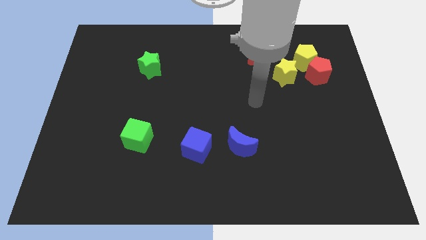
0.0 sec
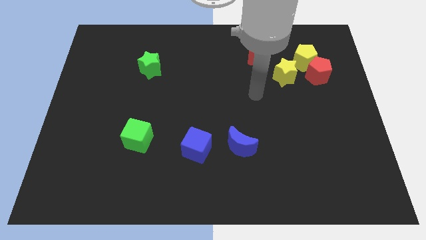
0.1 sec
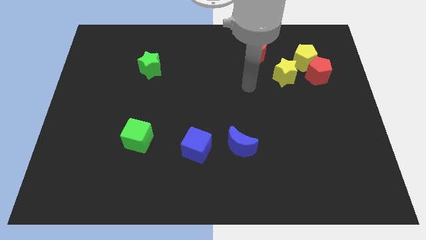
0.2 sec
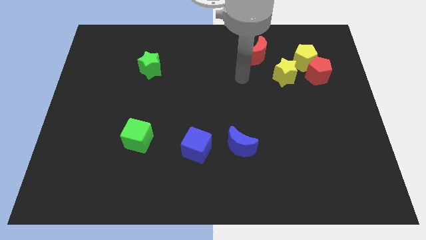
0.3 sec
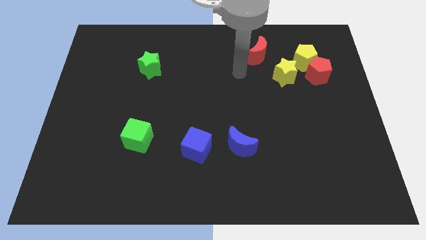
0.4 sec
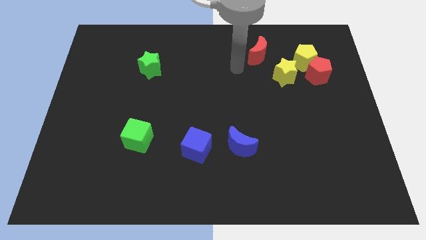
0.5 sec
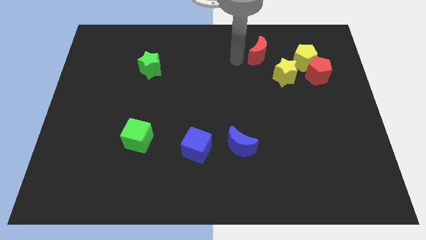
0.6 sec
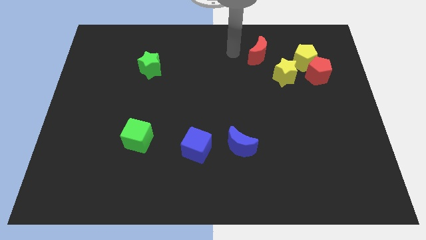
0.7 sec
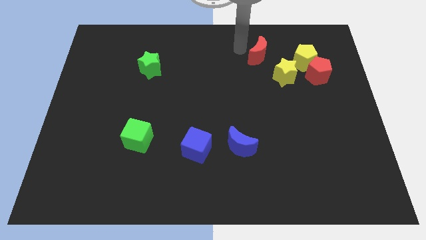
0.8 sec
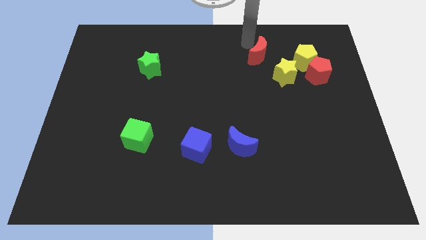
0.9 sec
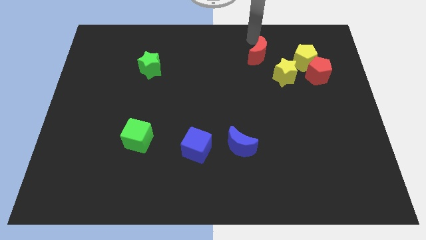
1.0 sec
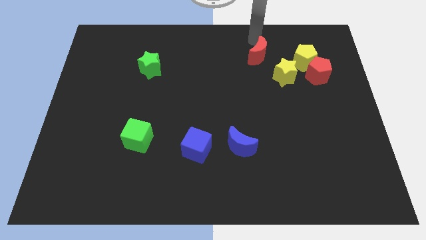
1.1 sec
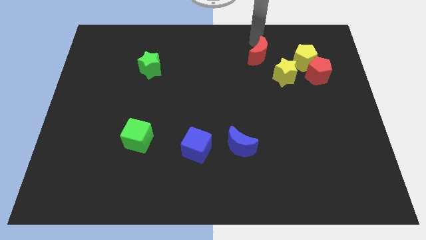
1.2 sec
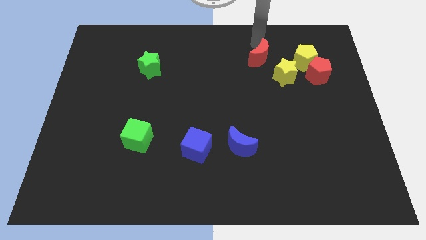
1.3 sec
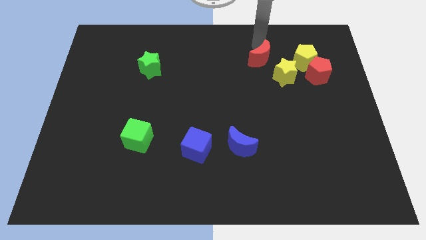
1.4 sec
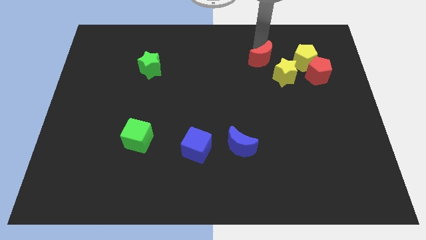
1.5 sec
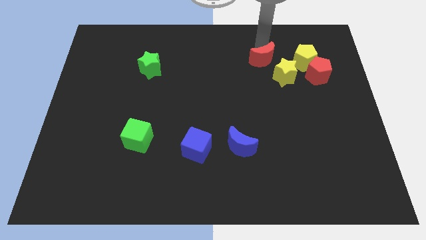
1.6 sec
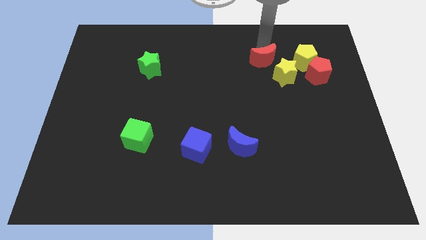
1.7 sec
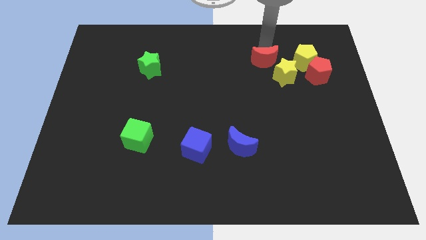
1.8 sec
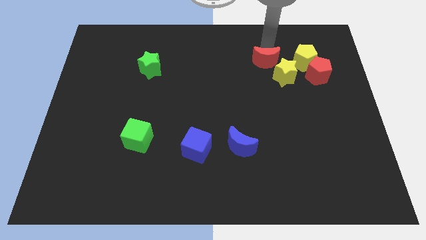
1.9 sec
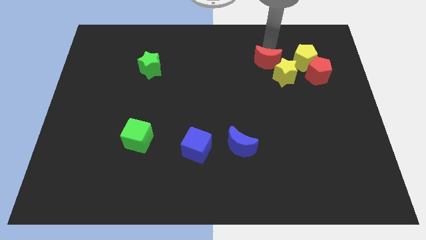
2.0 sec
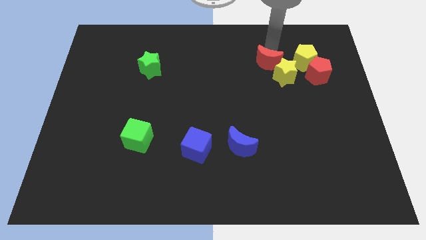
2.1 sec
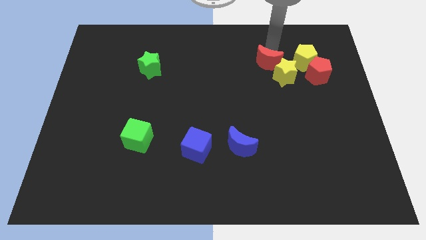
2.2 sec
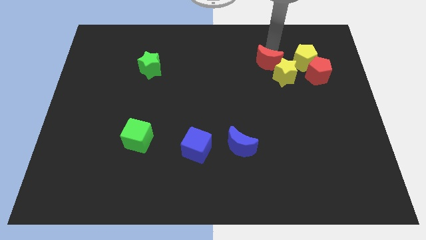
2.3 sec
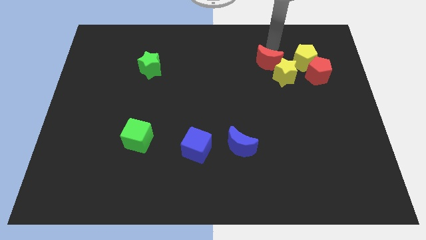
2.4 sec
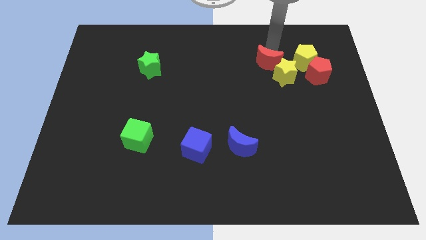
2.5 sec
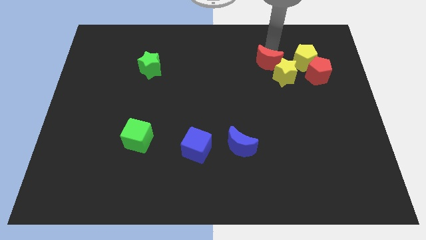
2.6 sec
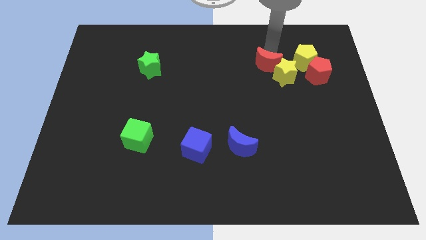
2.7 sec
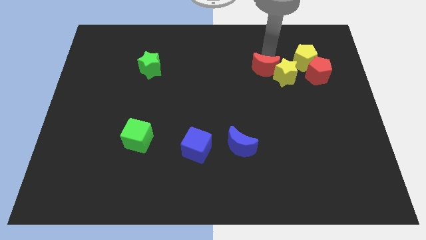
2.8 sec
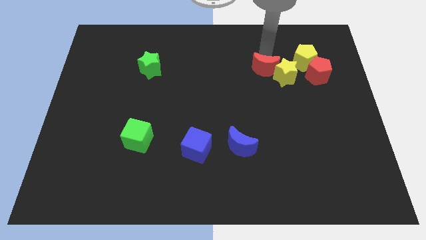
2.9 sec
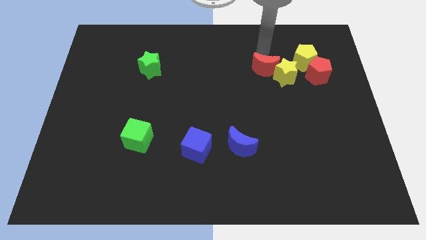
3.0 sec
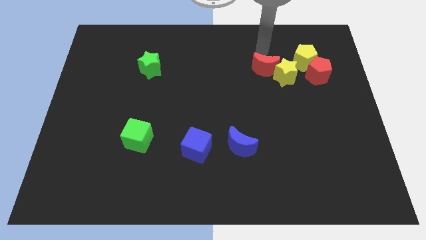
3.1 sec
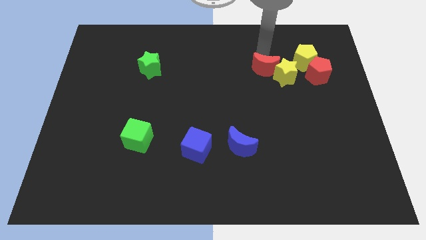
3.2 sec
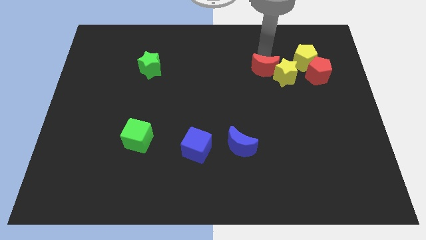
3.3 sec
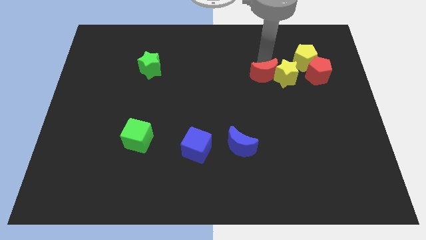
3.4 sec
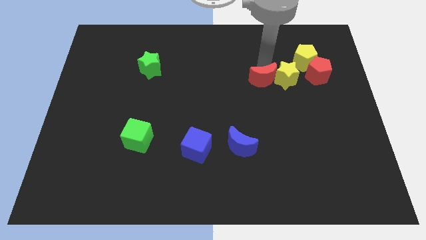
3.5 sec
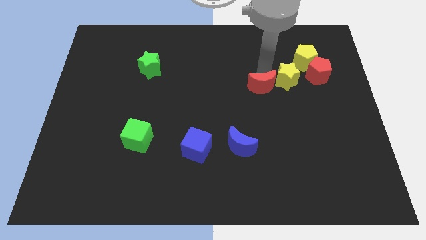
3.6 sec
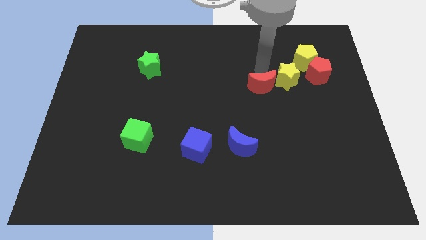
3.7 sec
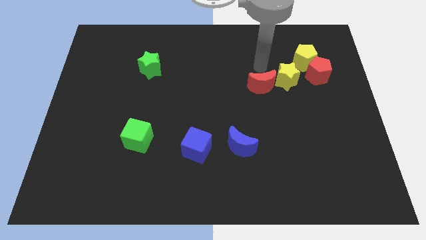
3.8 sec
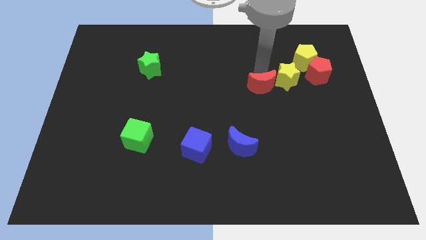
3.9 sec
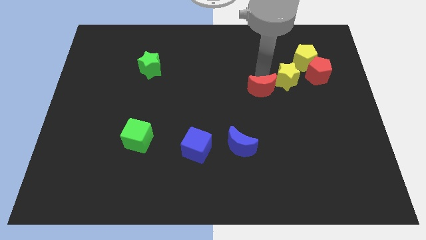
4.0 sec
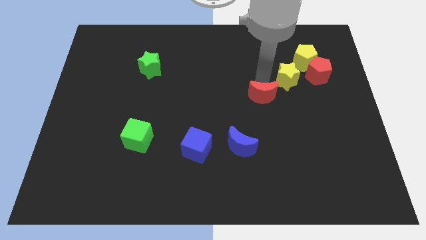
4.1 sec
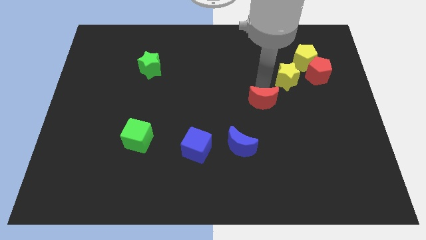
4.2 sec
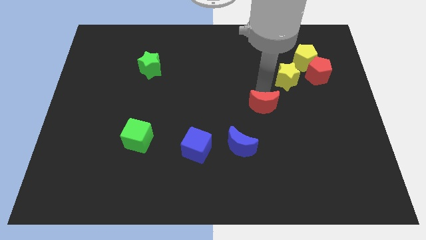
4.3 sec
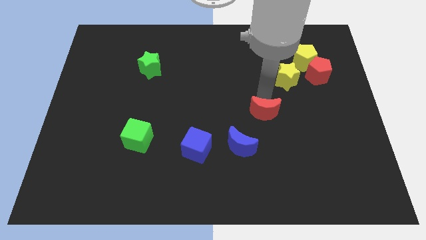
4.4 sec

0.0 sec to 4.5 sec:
push the red moon to the top right of the blue moon

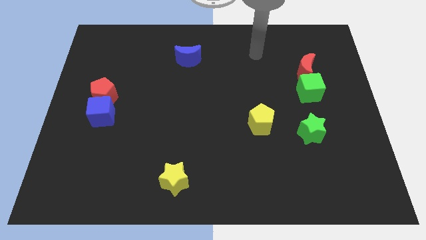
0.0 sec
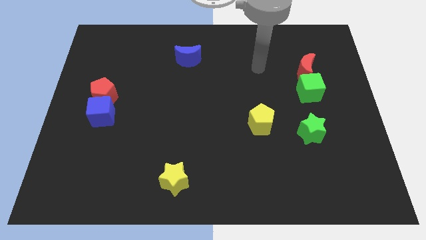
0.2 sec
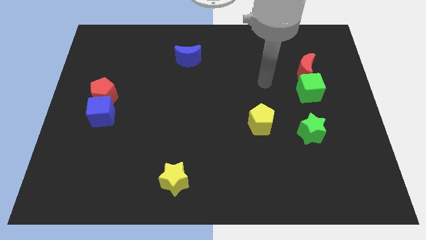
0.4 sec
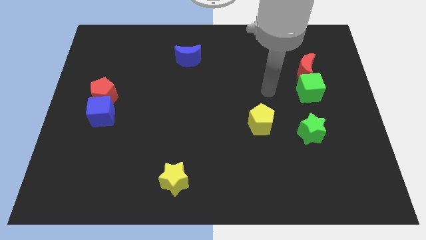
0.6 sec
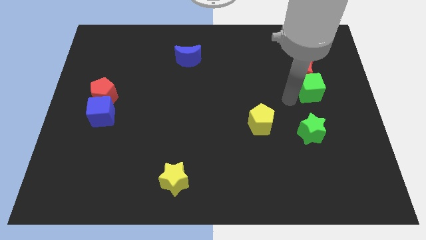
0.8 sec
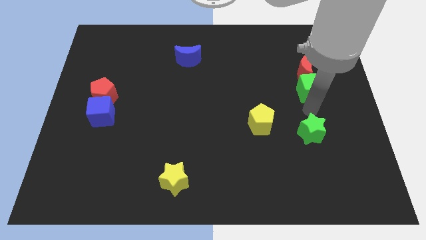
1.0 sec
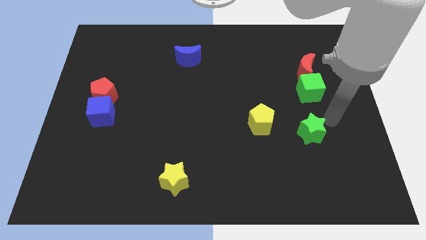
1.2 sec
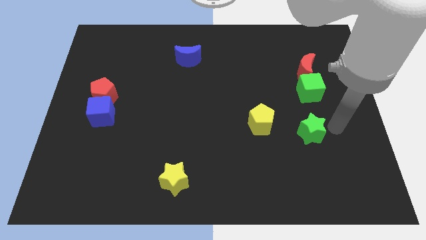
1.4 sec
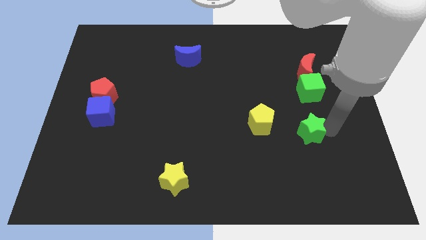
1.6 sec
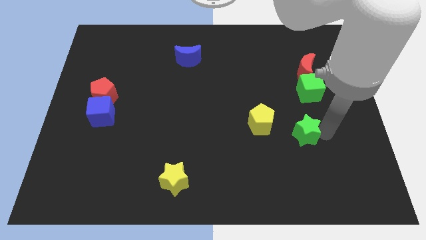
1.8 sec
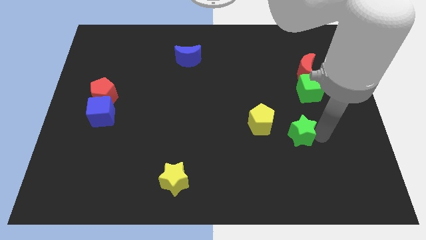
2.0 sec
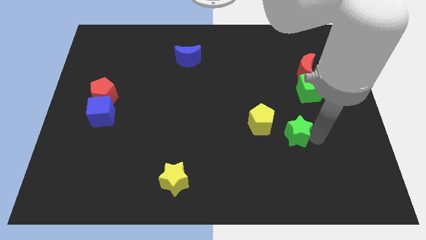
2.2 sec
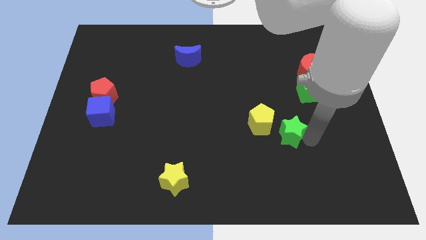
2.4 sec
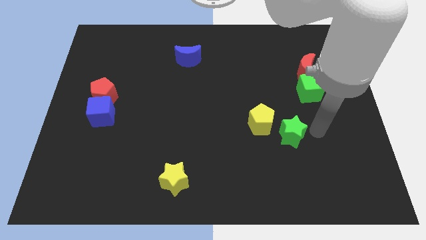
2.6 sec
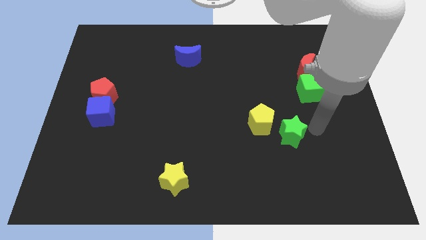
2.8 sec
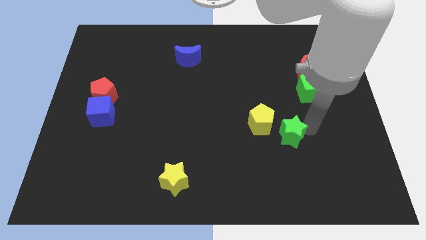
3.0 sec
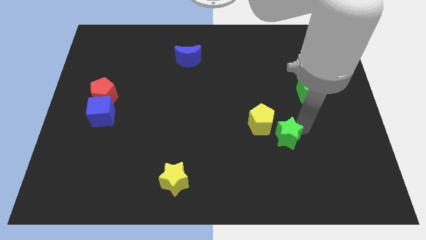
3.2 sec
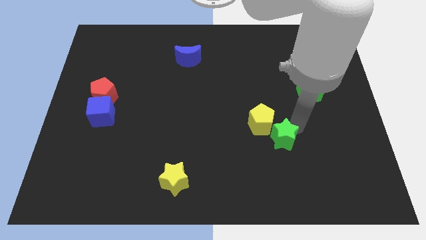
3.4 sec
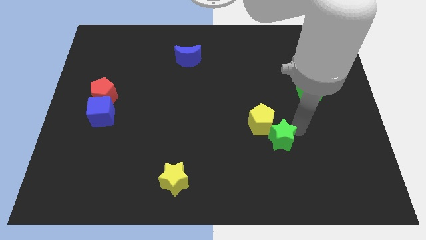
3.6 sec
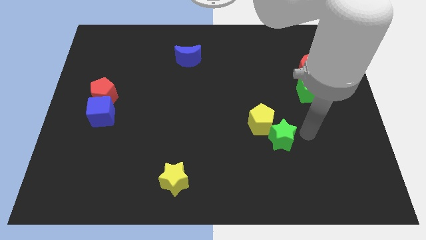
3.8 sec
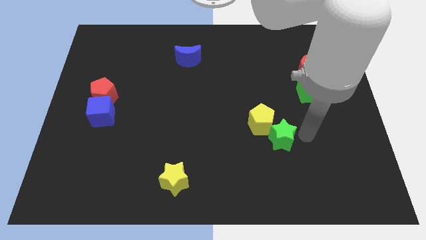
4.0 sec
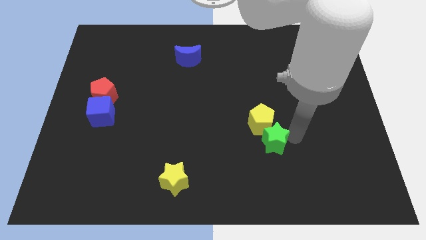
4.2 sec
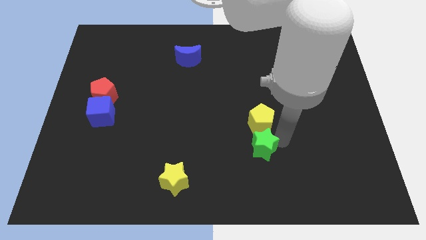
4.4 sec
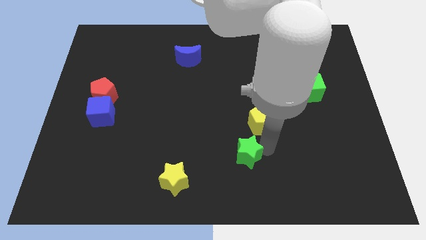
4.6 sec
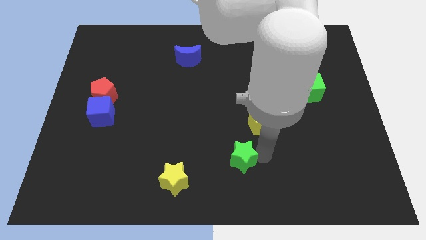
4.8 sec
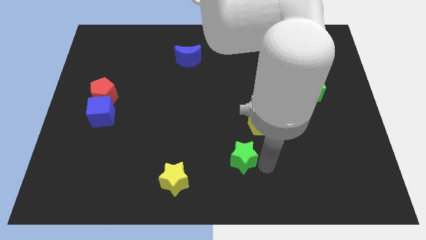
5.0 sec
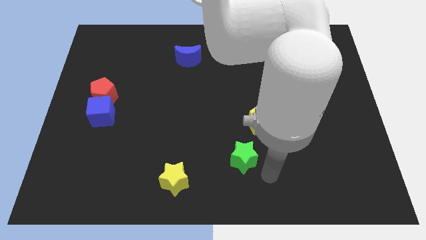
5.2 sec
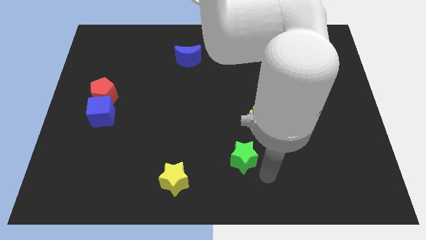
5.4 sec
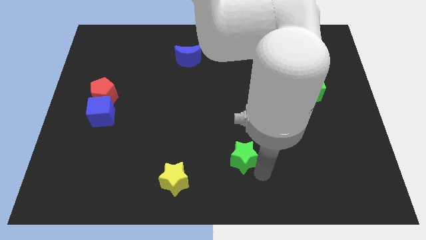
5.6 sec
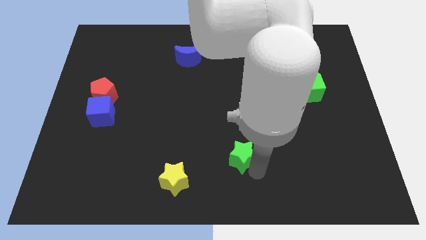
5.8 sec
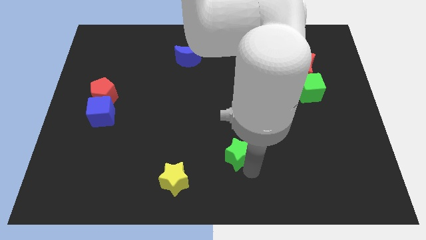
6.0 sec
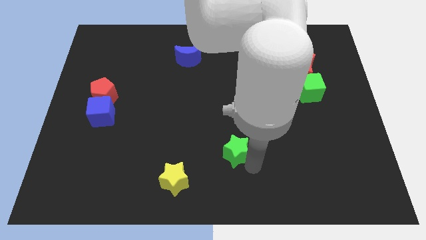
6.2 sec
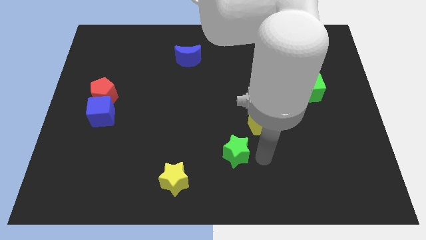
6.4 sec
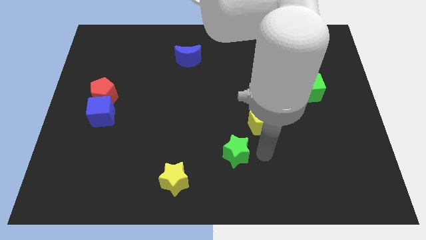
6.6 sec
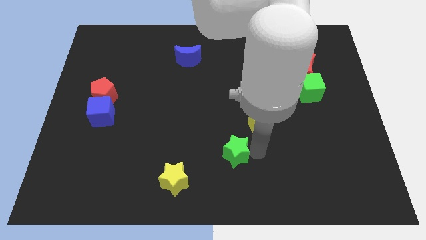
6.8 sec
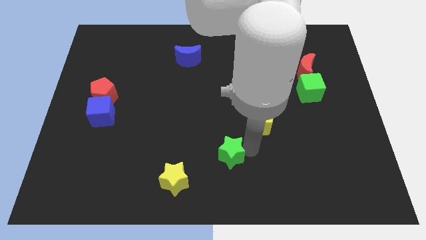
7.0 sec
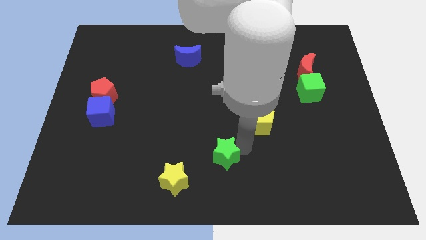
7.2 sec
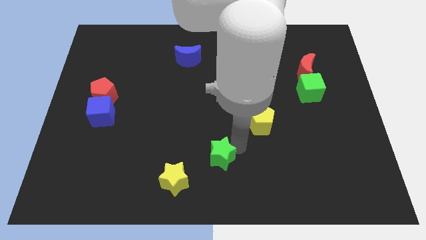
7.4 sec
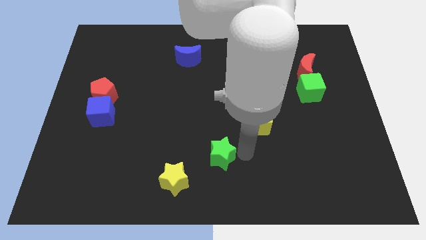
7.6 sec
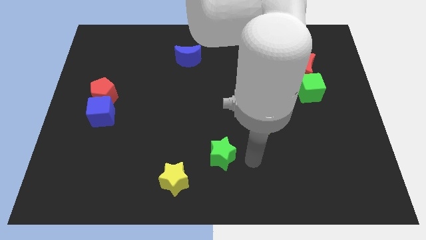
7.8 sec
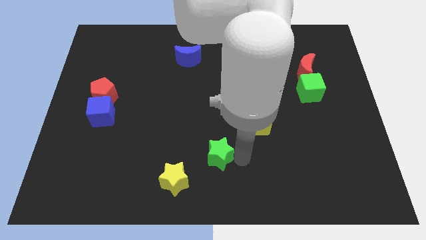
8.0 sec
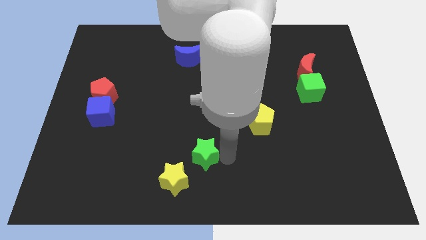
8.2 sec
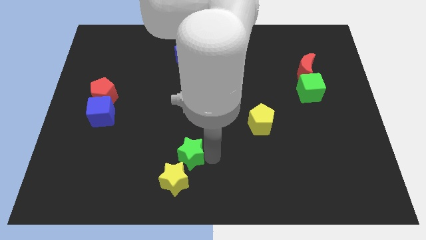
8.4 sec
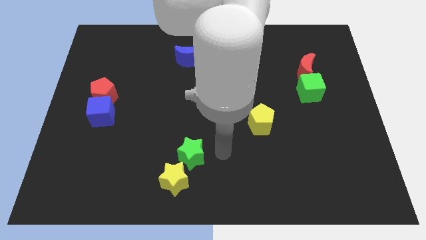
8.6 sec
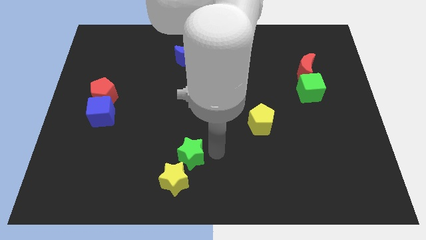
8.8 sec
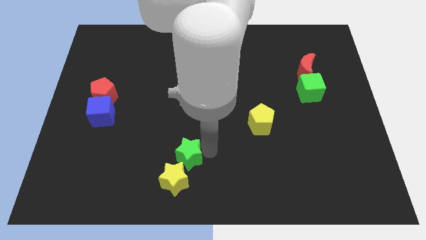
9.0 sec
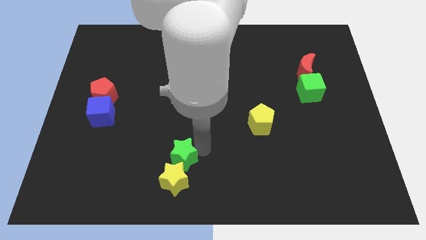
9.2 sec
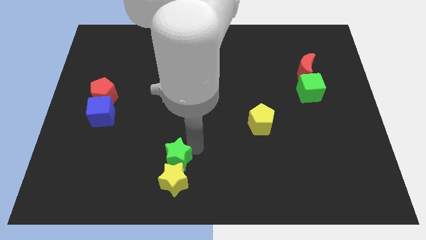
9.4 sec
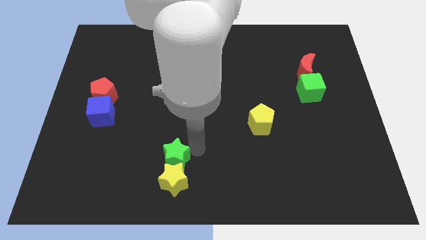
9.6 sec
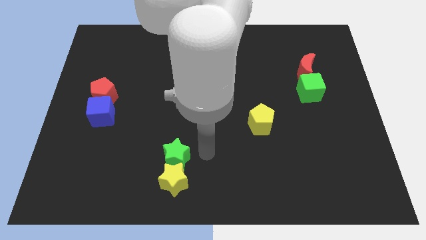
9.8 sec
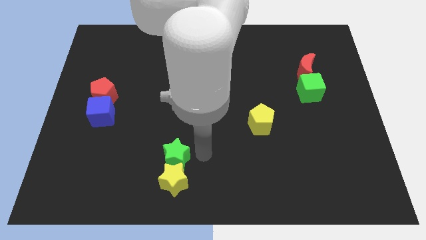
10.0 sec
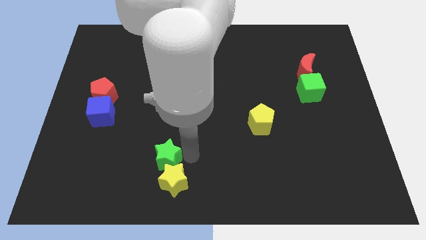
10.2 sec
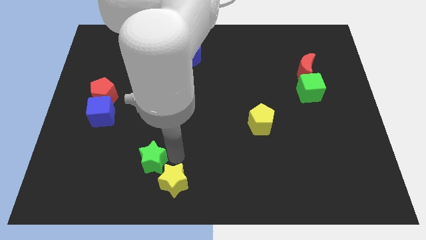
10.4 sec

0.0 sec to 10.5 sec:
push the green star to the left of the yellow star
